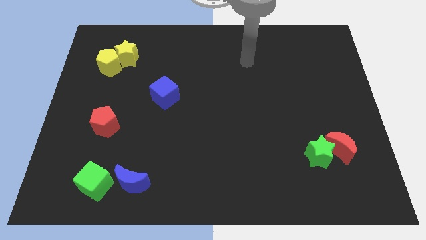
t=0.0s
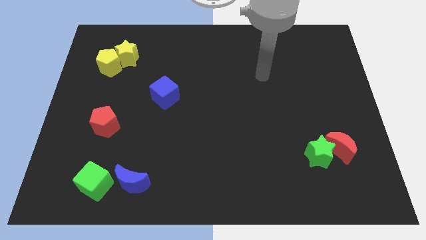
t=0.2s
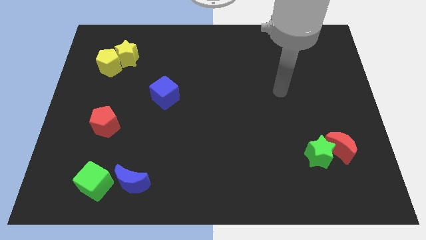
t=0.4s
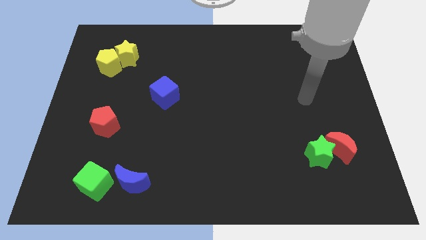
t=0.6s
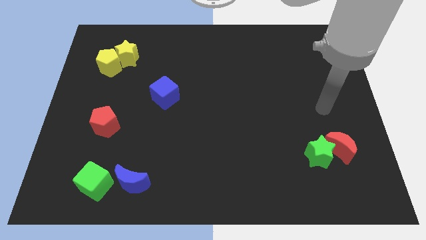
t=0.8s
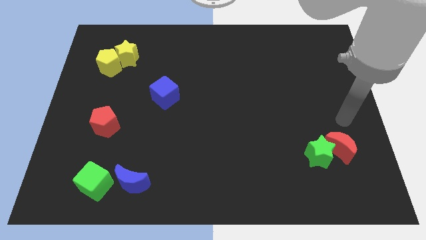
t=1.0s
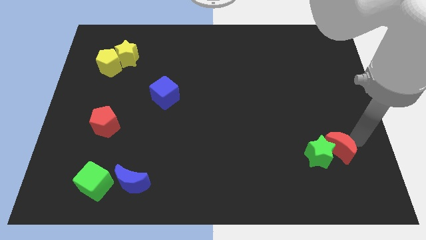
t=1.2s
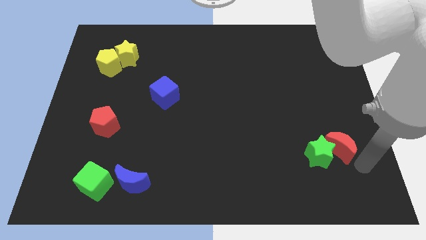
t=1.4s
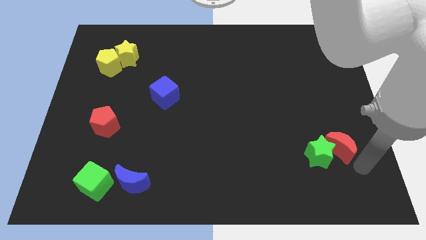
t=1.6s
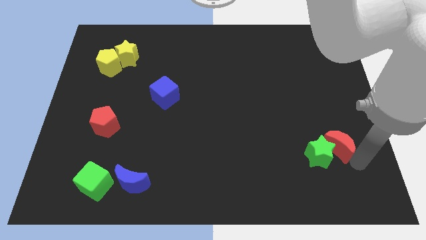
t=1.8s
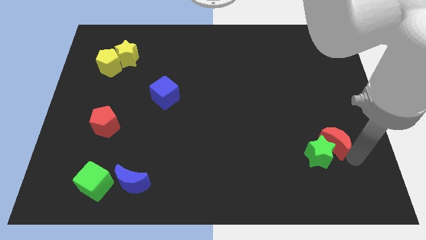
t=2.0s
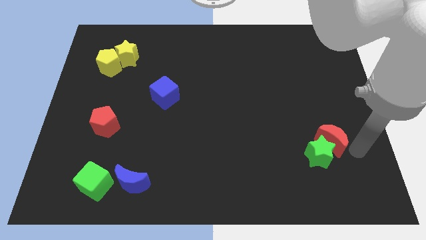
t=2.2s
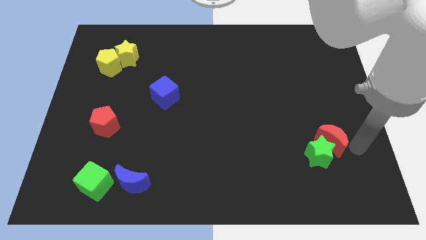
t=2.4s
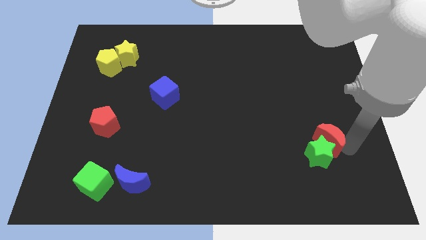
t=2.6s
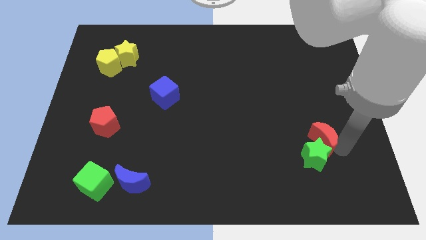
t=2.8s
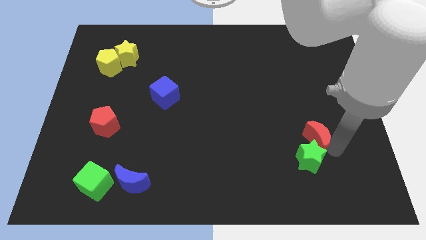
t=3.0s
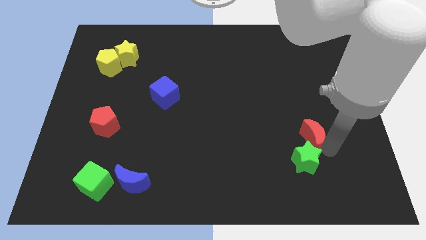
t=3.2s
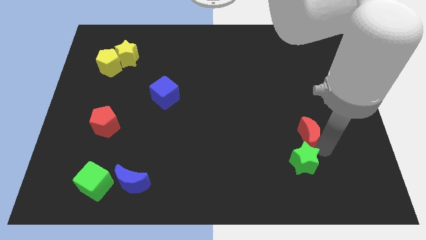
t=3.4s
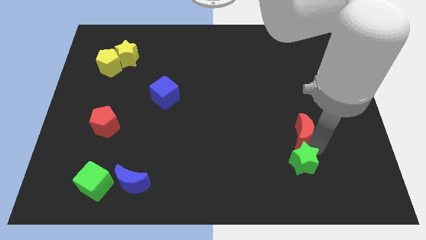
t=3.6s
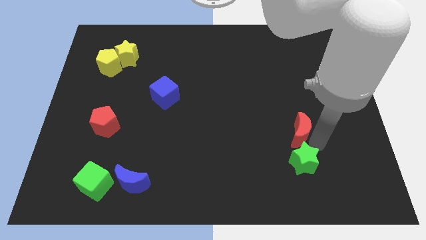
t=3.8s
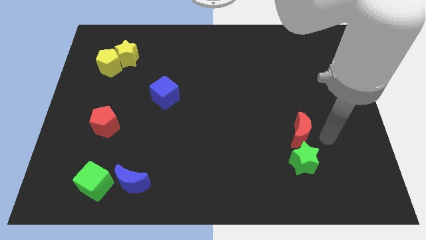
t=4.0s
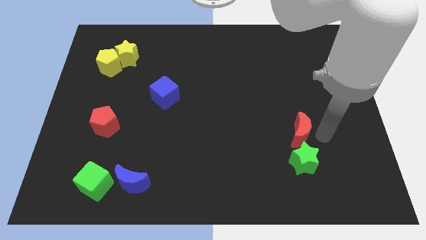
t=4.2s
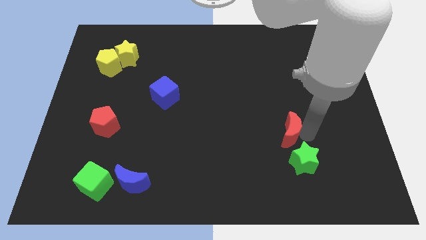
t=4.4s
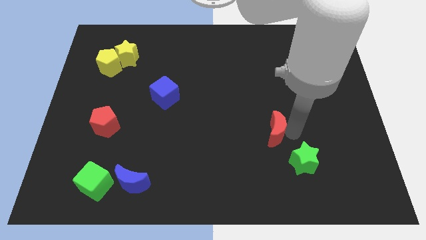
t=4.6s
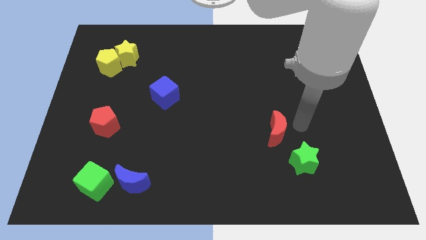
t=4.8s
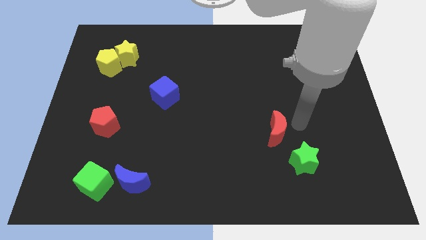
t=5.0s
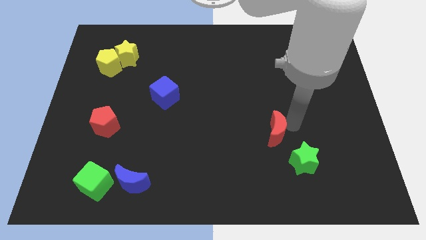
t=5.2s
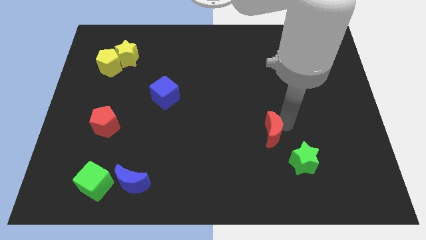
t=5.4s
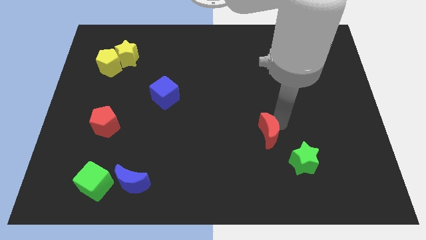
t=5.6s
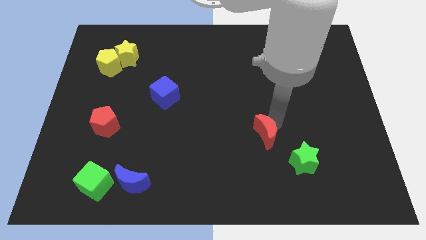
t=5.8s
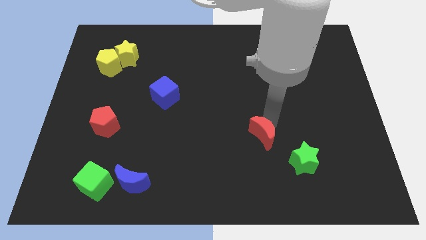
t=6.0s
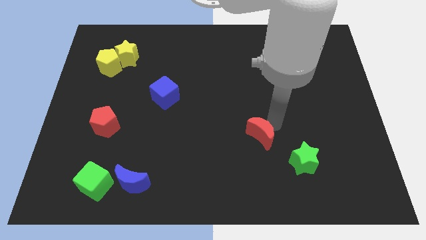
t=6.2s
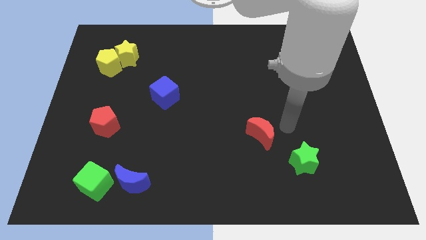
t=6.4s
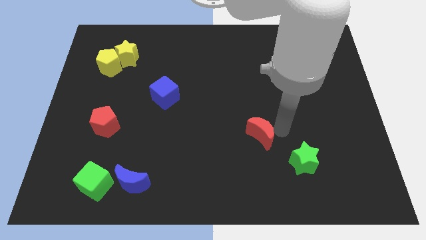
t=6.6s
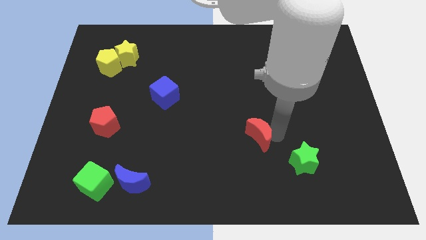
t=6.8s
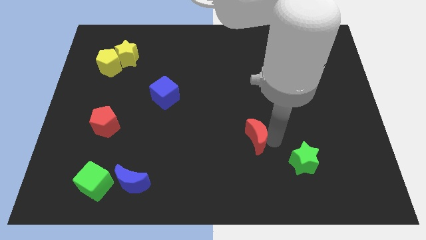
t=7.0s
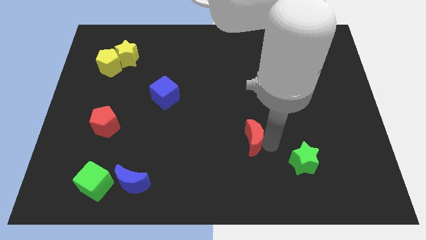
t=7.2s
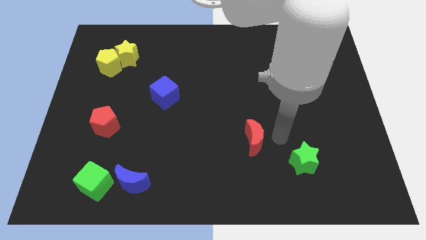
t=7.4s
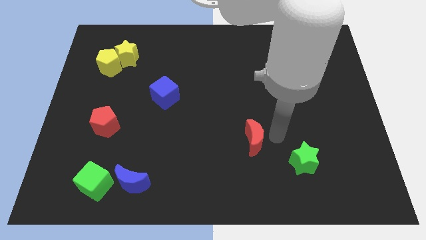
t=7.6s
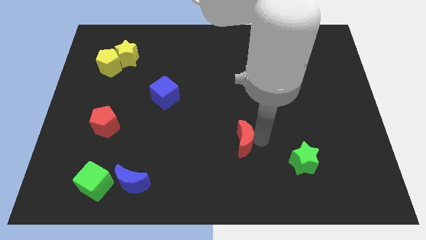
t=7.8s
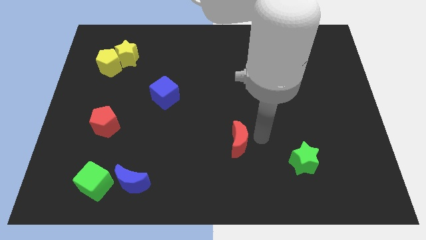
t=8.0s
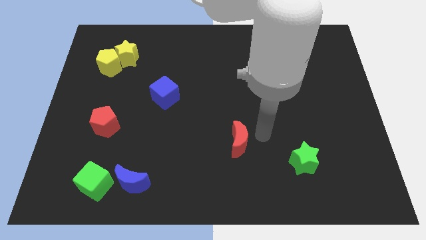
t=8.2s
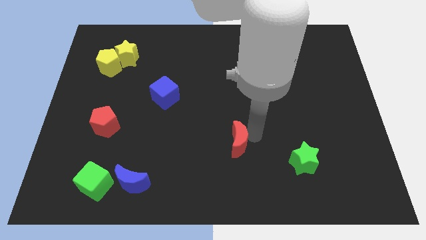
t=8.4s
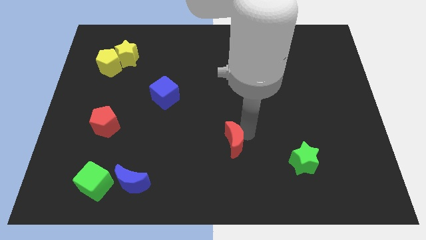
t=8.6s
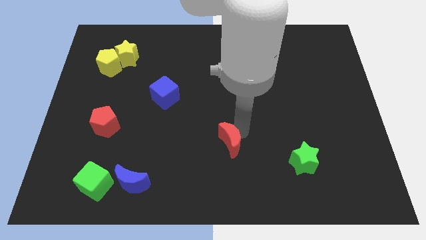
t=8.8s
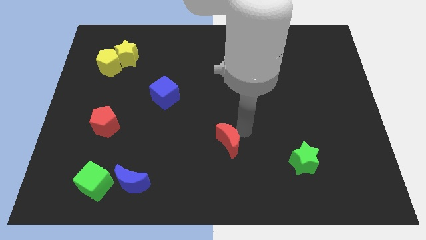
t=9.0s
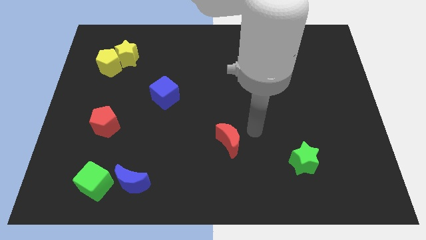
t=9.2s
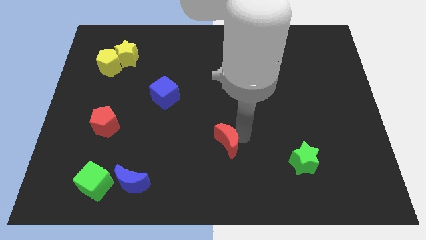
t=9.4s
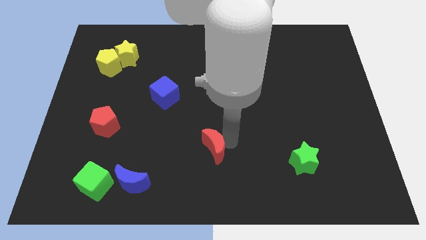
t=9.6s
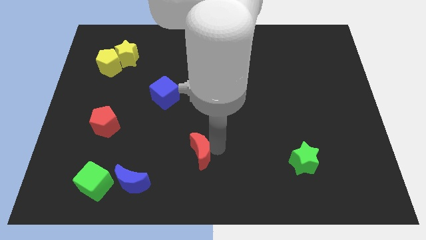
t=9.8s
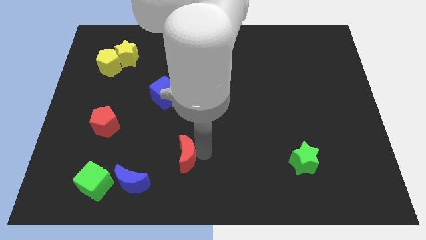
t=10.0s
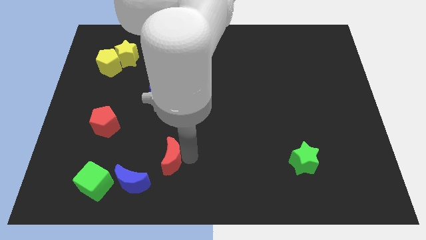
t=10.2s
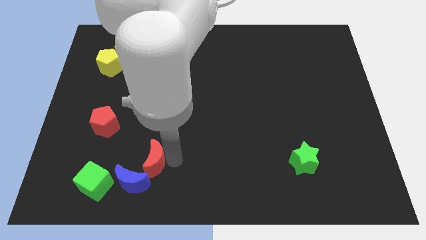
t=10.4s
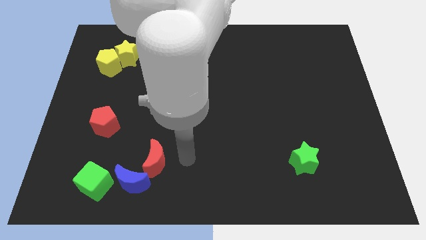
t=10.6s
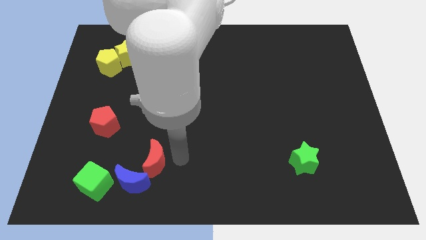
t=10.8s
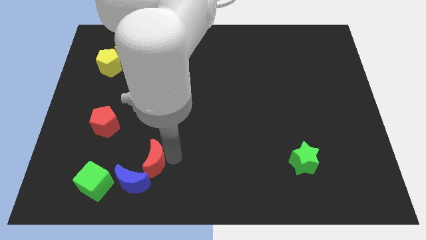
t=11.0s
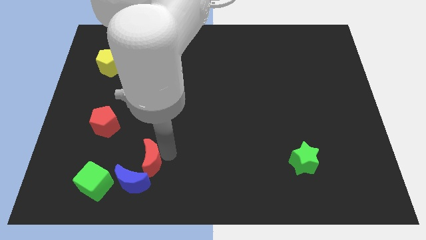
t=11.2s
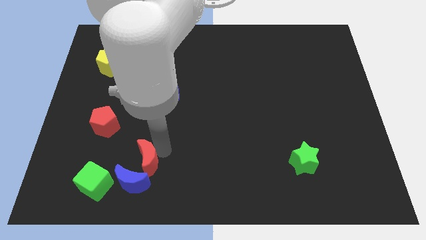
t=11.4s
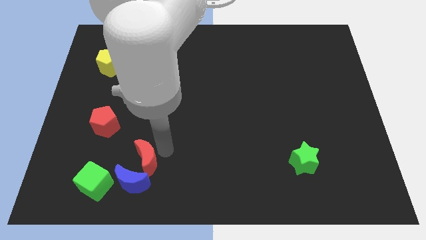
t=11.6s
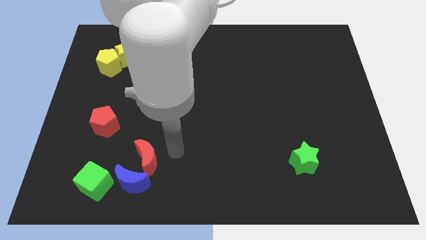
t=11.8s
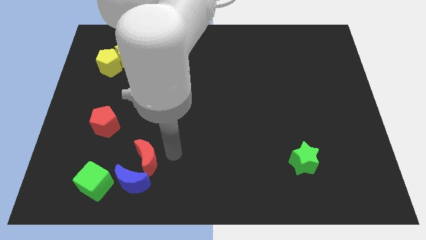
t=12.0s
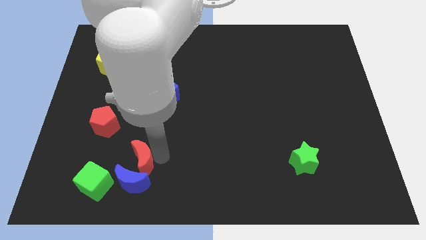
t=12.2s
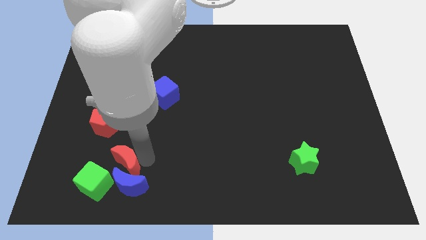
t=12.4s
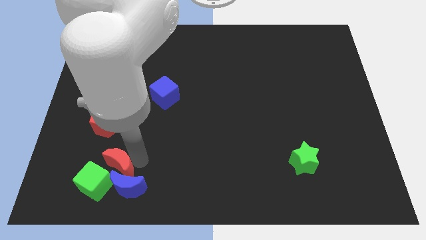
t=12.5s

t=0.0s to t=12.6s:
move the red moon to the green cube
